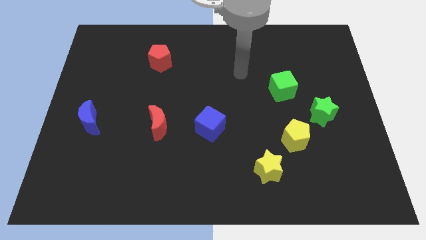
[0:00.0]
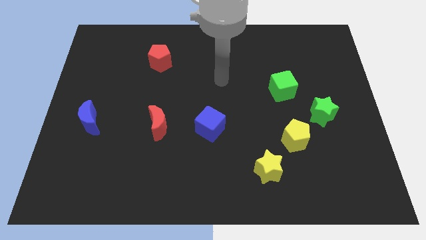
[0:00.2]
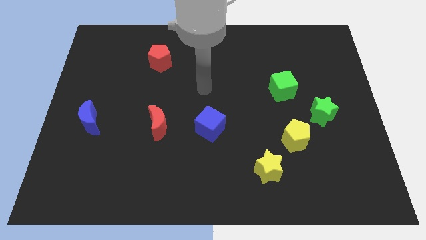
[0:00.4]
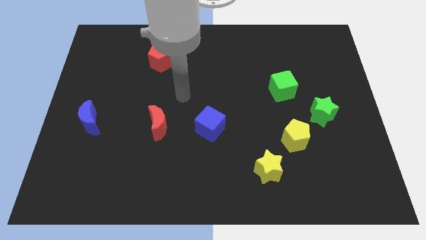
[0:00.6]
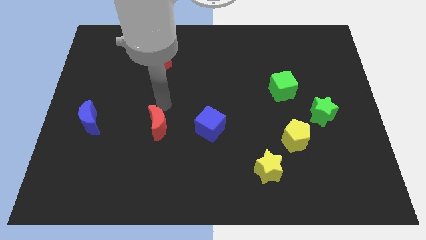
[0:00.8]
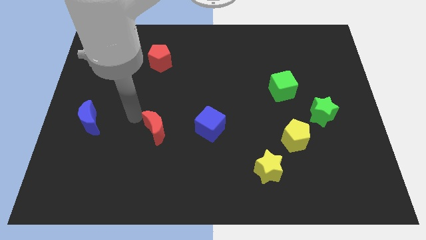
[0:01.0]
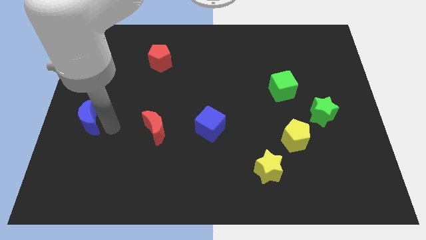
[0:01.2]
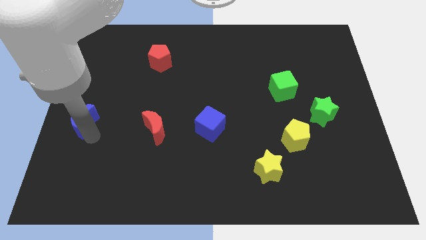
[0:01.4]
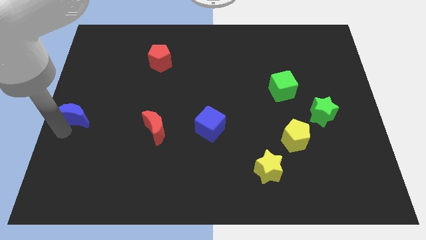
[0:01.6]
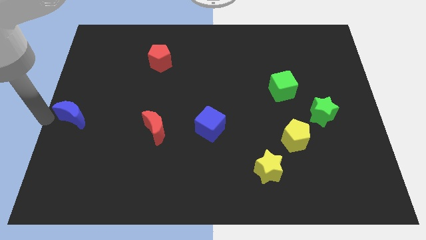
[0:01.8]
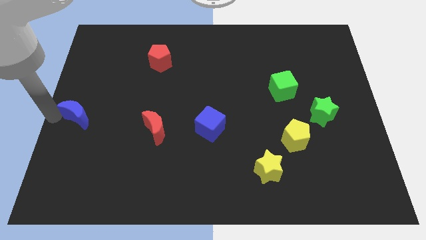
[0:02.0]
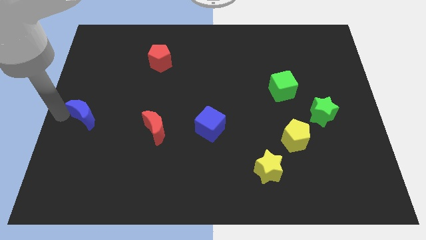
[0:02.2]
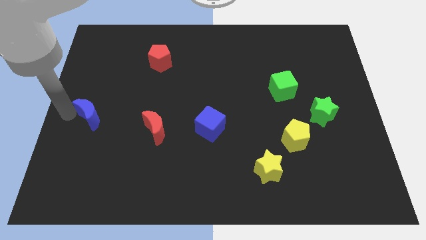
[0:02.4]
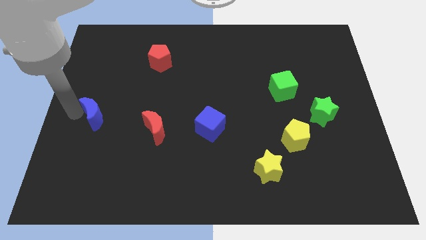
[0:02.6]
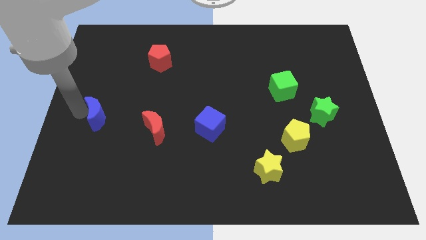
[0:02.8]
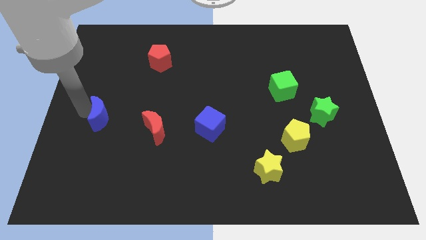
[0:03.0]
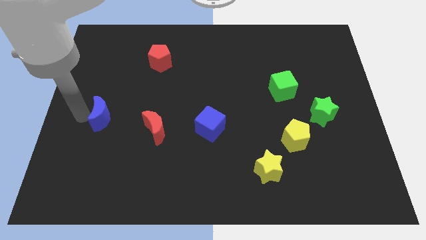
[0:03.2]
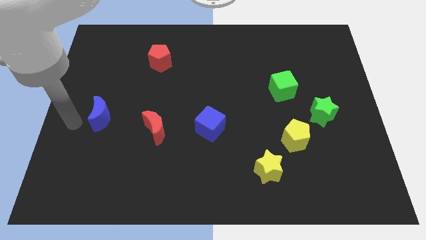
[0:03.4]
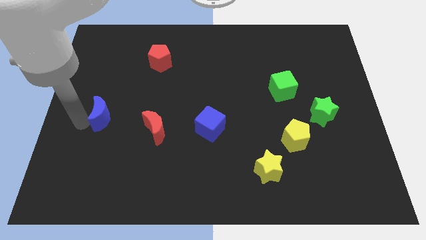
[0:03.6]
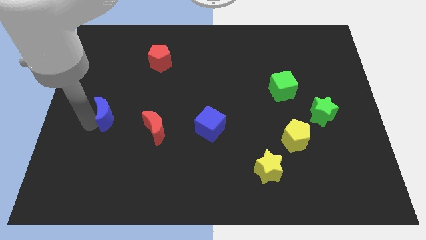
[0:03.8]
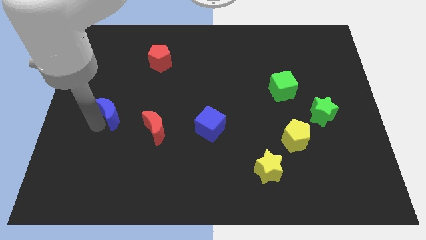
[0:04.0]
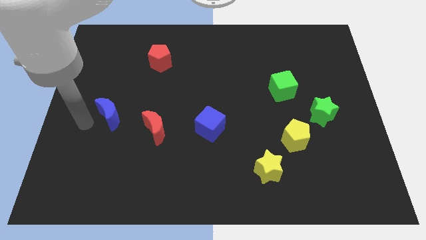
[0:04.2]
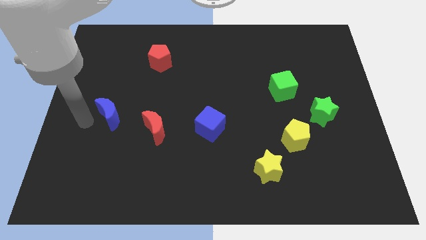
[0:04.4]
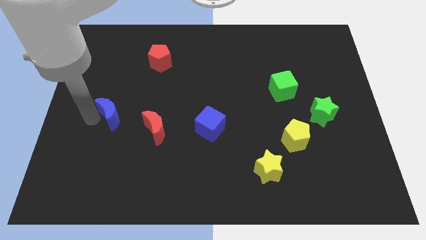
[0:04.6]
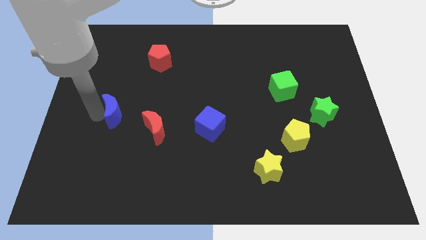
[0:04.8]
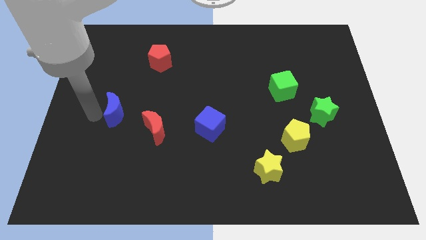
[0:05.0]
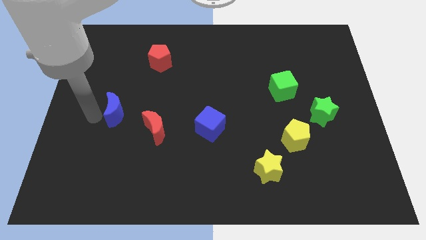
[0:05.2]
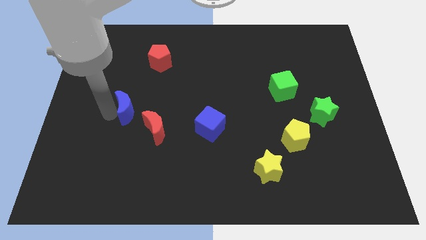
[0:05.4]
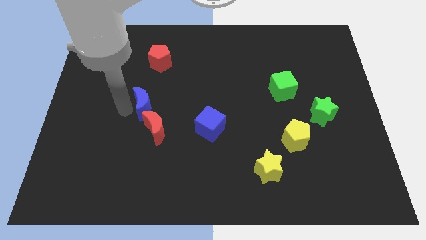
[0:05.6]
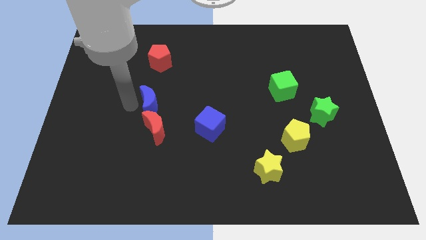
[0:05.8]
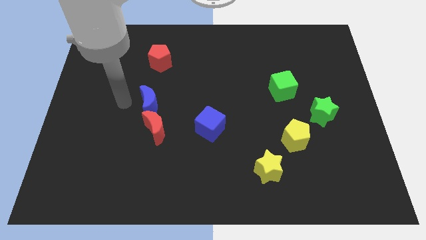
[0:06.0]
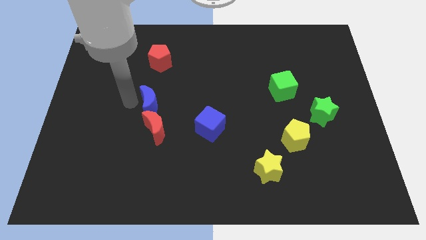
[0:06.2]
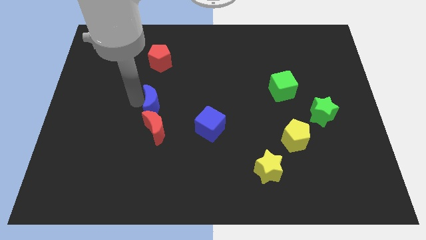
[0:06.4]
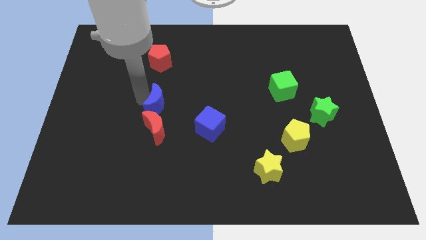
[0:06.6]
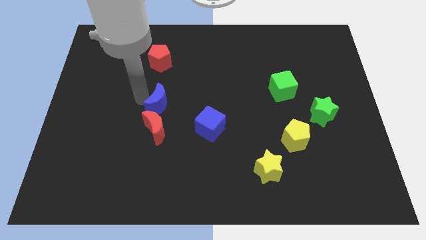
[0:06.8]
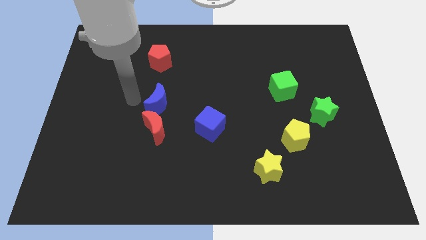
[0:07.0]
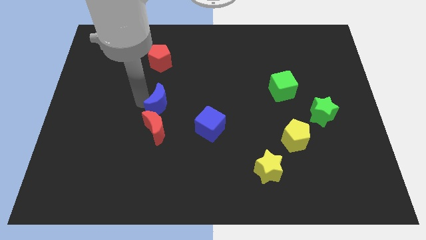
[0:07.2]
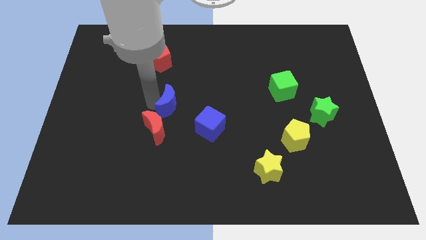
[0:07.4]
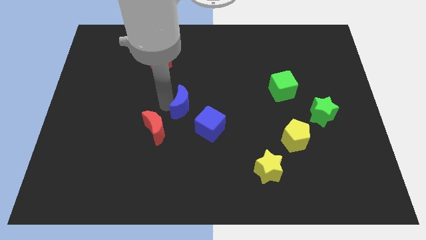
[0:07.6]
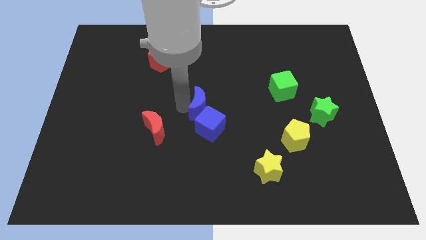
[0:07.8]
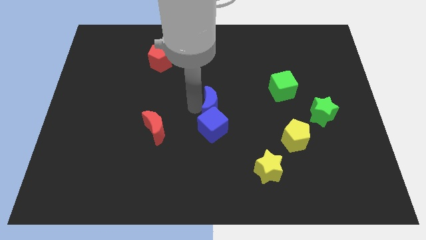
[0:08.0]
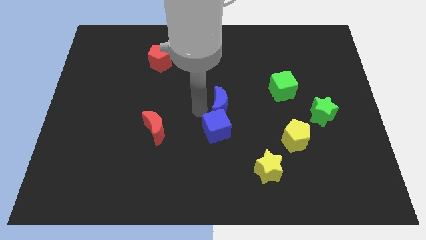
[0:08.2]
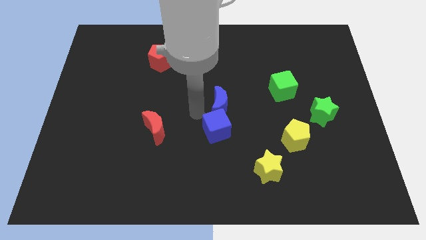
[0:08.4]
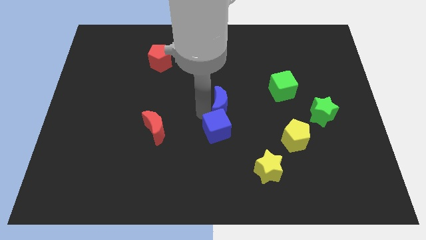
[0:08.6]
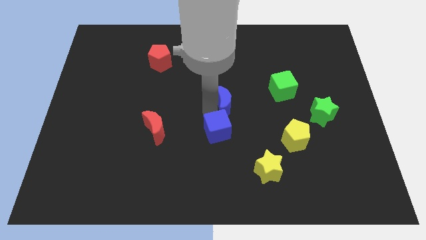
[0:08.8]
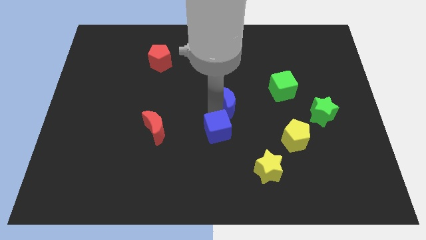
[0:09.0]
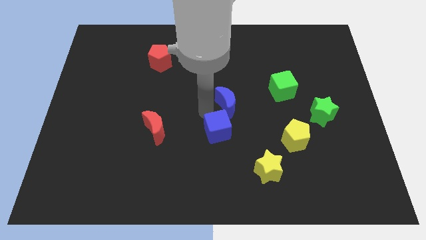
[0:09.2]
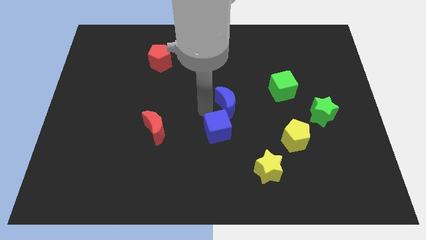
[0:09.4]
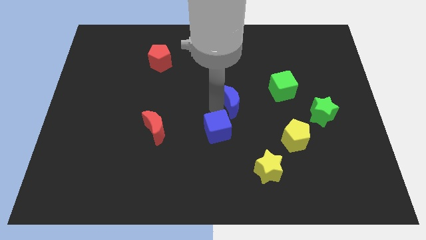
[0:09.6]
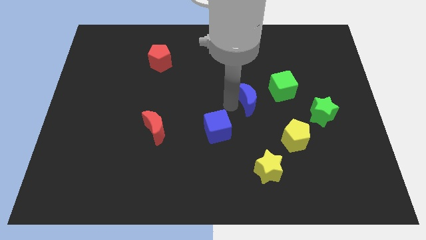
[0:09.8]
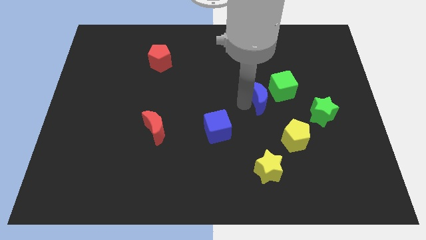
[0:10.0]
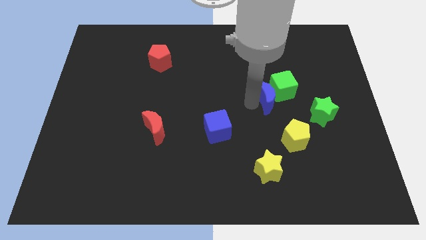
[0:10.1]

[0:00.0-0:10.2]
slide the blue moon close to the green cube

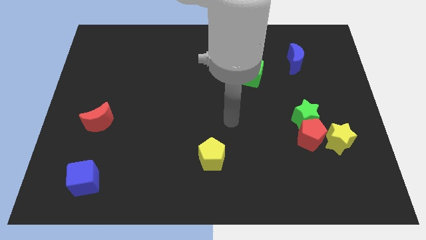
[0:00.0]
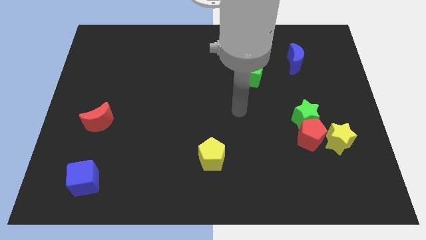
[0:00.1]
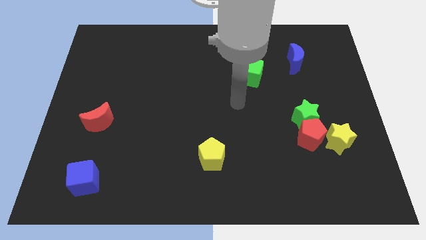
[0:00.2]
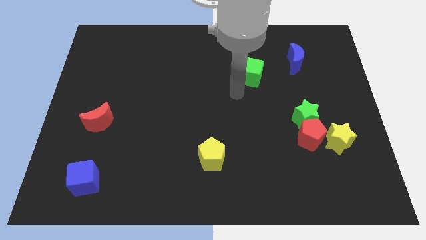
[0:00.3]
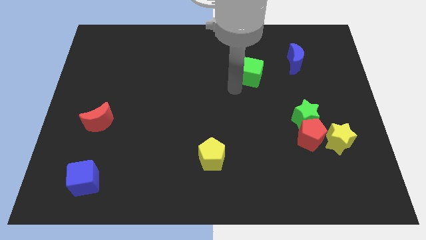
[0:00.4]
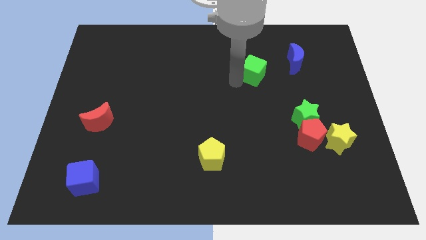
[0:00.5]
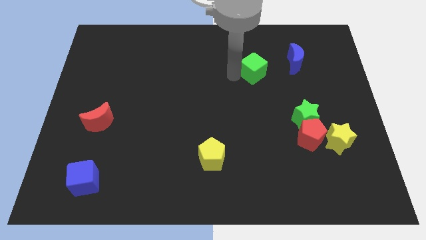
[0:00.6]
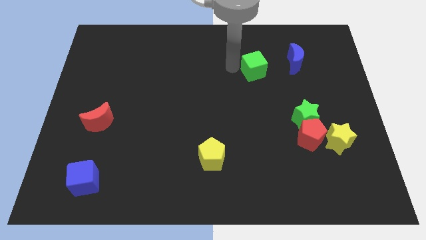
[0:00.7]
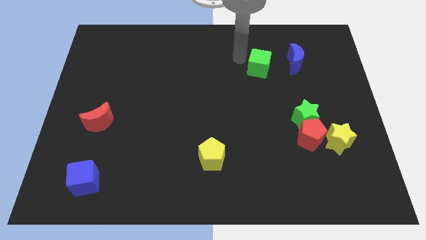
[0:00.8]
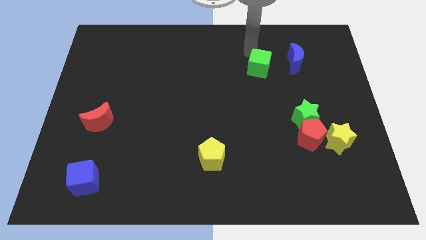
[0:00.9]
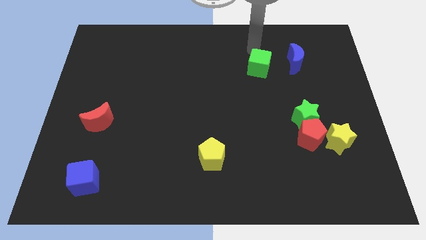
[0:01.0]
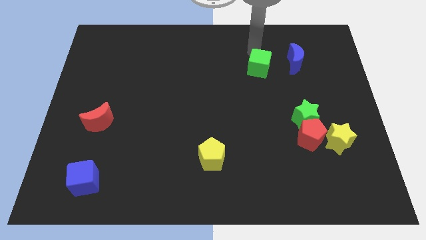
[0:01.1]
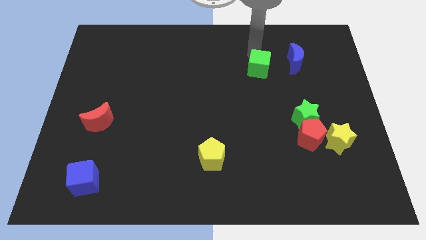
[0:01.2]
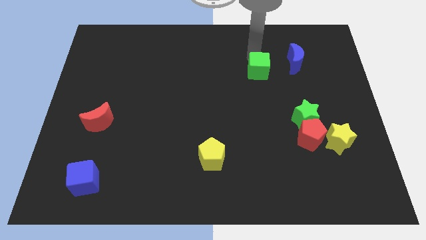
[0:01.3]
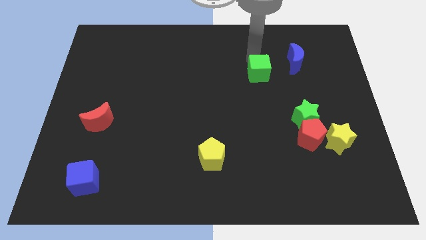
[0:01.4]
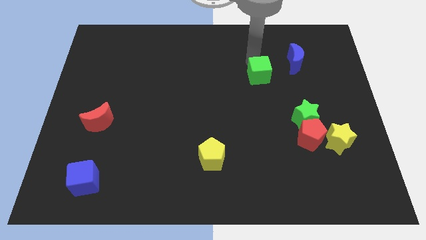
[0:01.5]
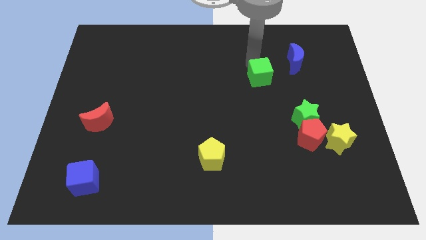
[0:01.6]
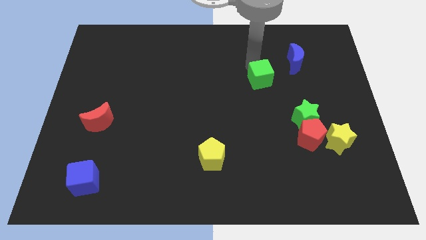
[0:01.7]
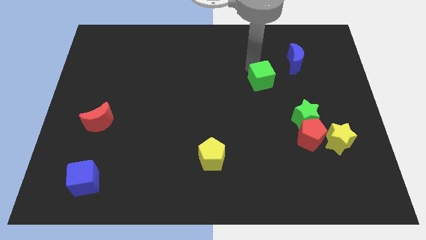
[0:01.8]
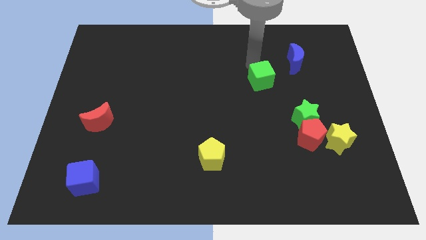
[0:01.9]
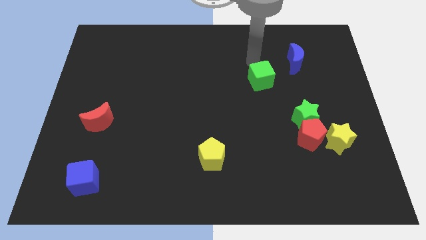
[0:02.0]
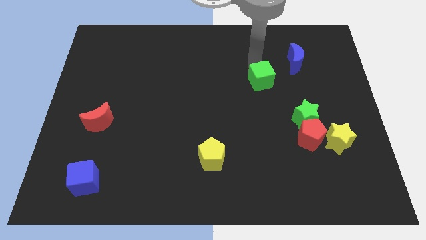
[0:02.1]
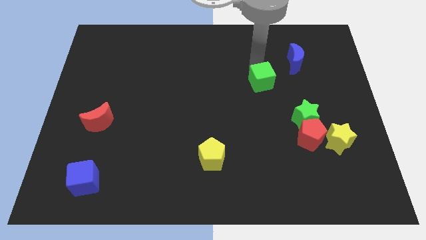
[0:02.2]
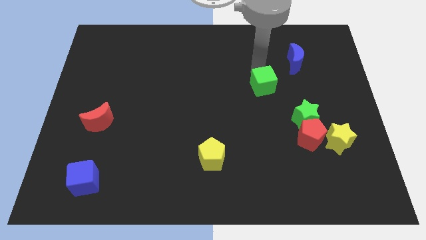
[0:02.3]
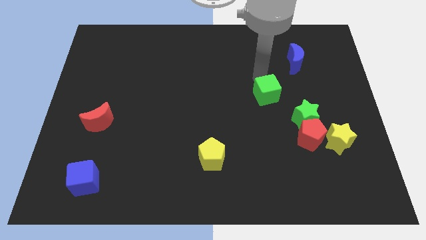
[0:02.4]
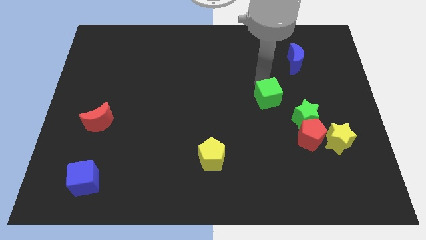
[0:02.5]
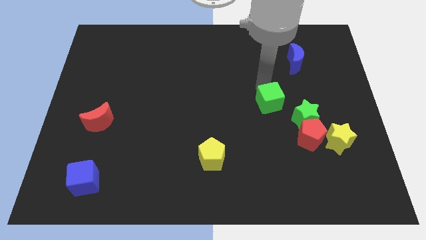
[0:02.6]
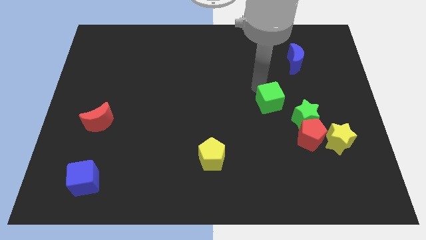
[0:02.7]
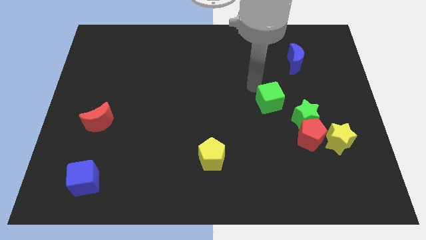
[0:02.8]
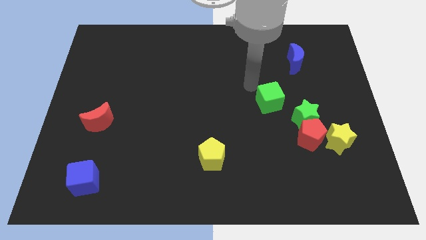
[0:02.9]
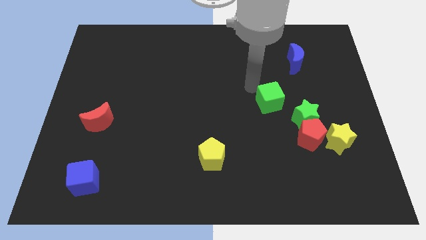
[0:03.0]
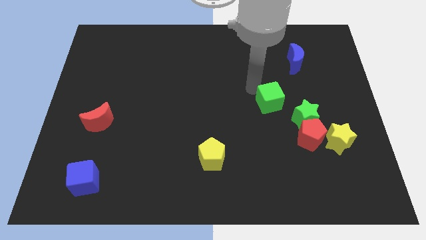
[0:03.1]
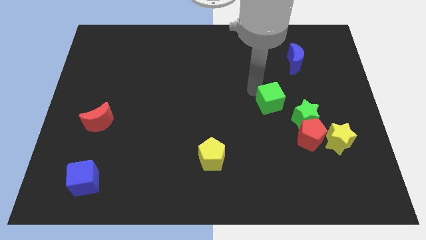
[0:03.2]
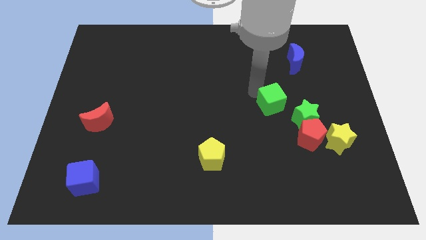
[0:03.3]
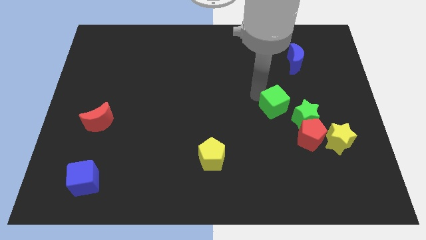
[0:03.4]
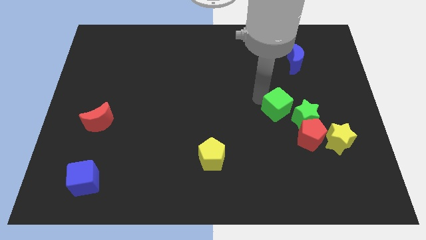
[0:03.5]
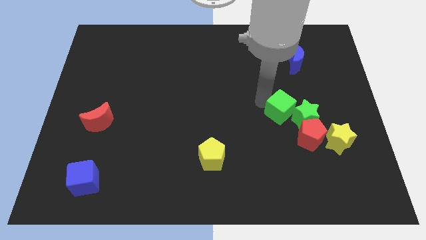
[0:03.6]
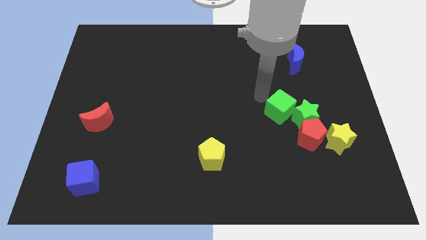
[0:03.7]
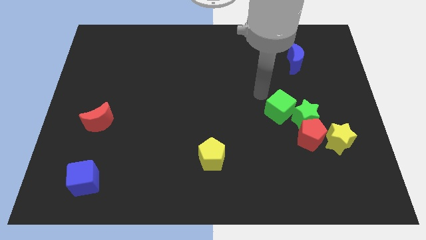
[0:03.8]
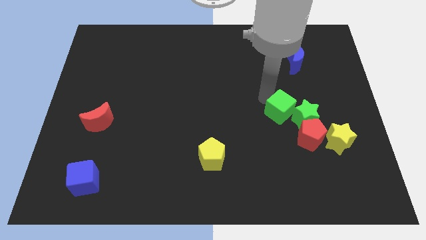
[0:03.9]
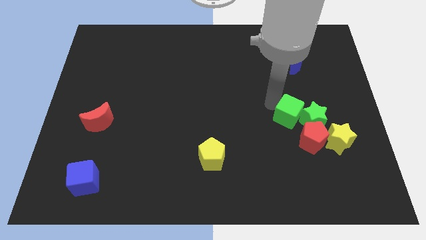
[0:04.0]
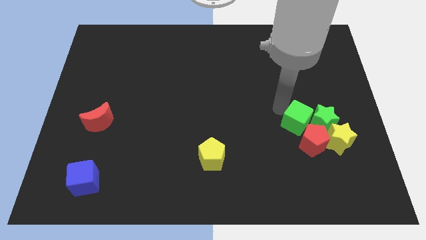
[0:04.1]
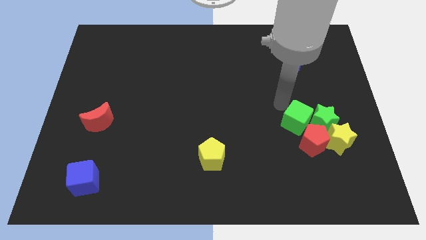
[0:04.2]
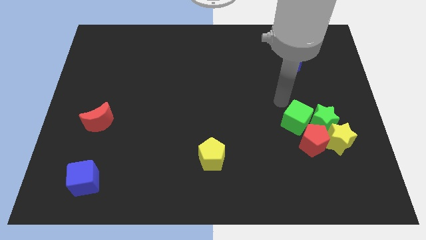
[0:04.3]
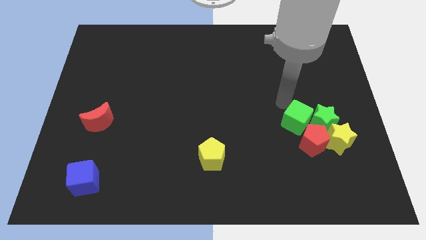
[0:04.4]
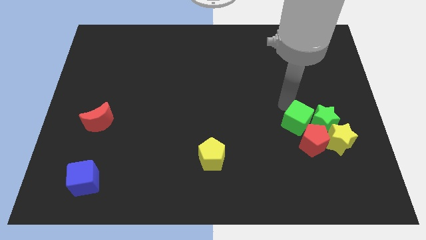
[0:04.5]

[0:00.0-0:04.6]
move the green cube next to the red pentagon
